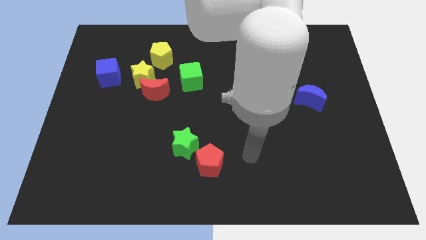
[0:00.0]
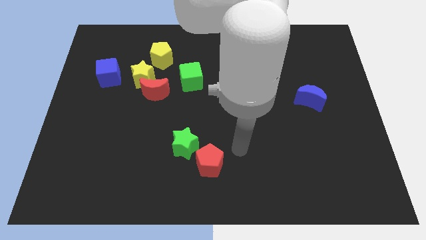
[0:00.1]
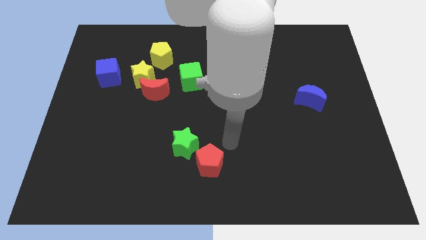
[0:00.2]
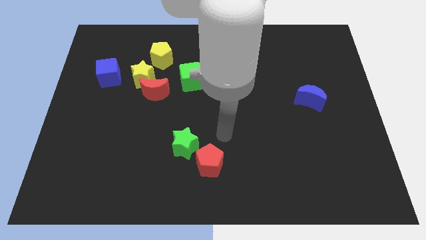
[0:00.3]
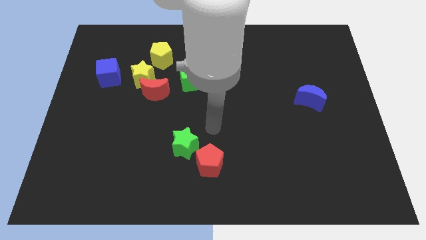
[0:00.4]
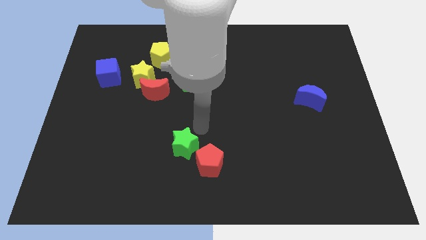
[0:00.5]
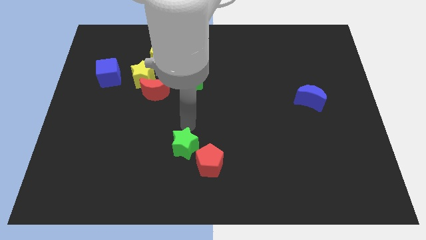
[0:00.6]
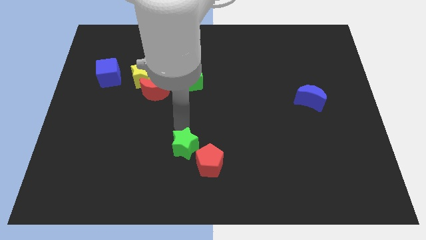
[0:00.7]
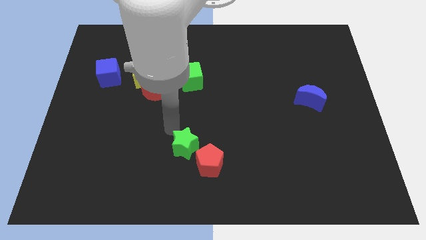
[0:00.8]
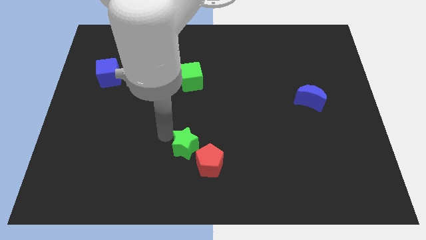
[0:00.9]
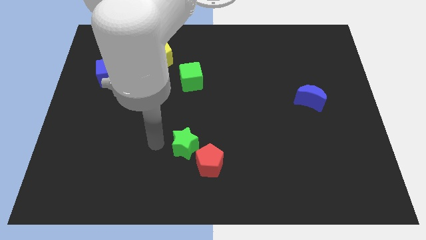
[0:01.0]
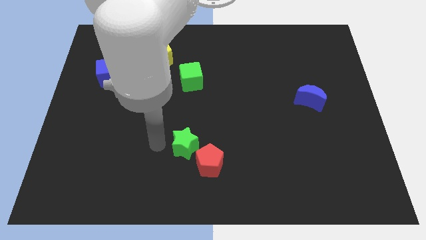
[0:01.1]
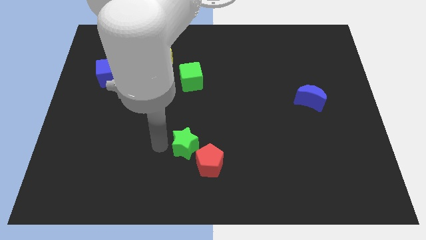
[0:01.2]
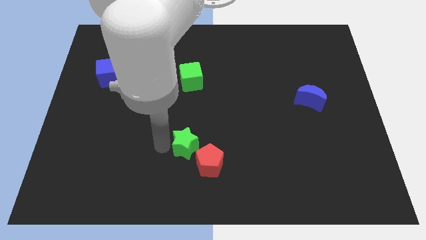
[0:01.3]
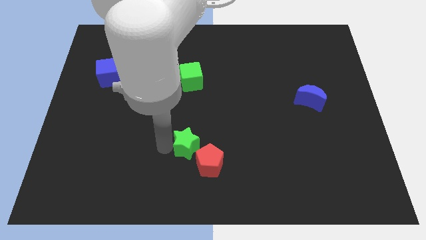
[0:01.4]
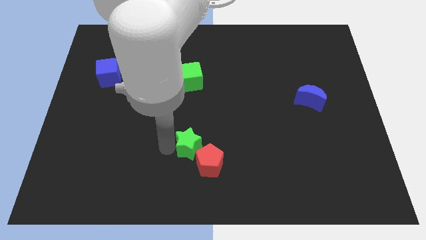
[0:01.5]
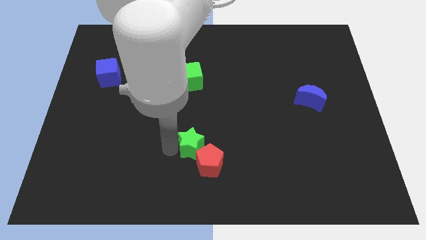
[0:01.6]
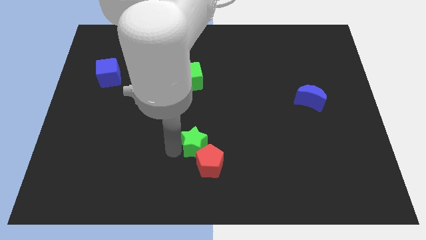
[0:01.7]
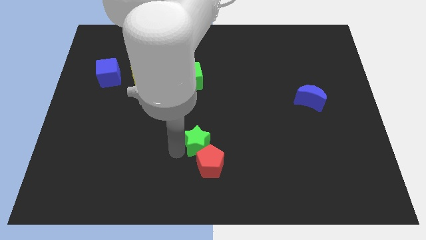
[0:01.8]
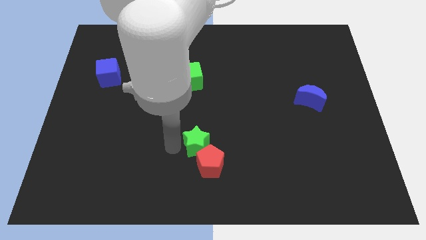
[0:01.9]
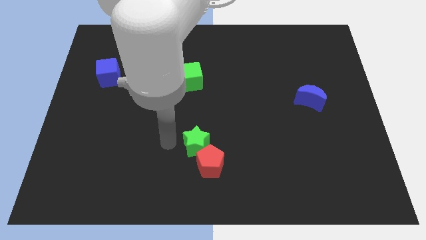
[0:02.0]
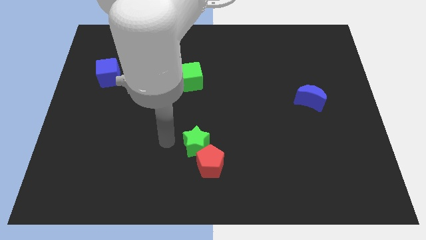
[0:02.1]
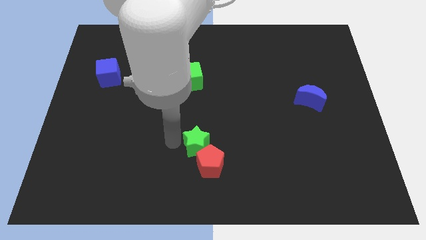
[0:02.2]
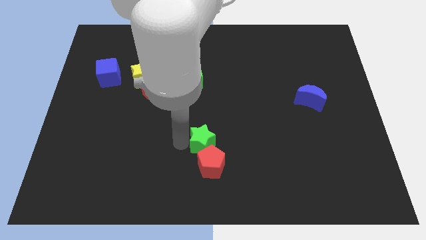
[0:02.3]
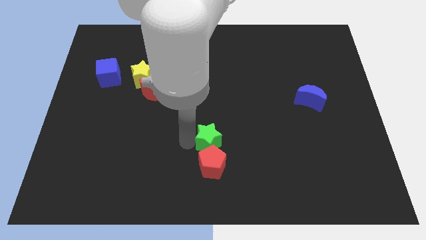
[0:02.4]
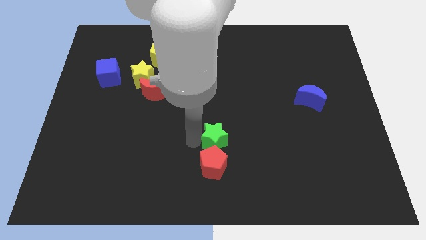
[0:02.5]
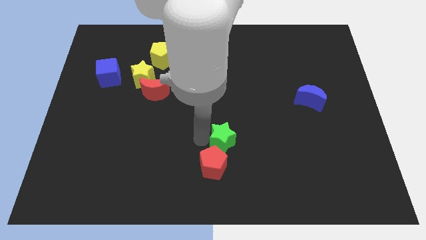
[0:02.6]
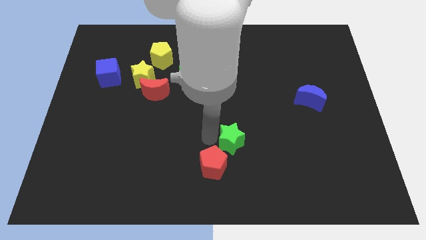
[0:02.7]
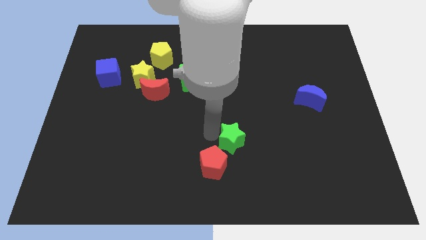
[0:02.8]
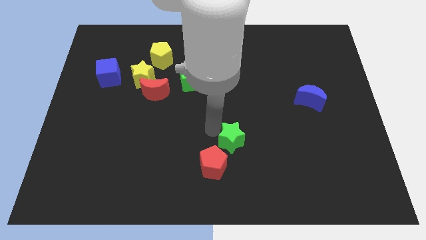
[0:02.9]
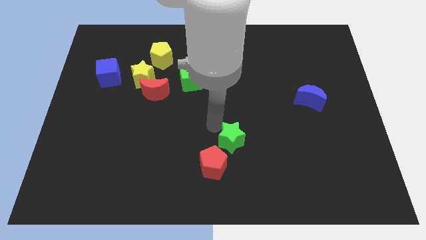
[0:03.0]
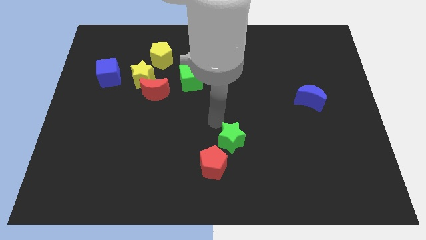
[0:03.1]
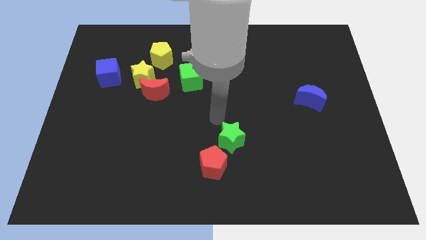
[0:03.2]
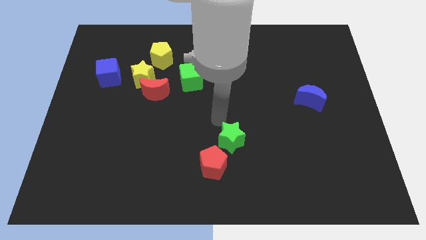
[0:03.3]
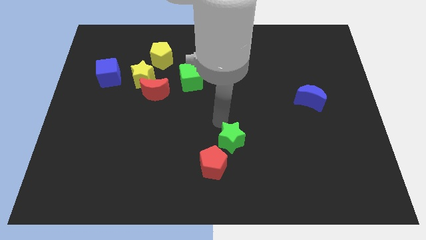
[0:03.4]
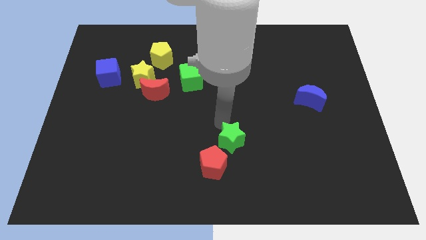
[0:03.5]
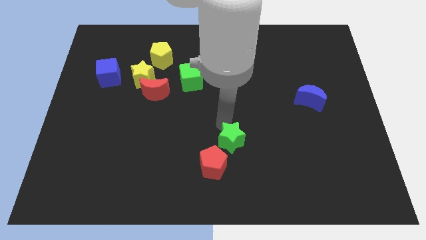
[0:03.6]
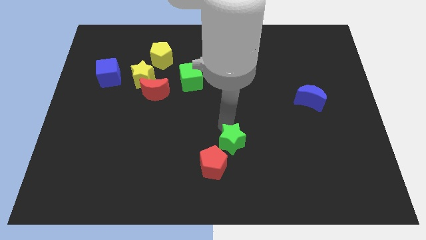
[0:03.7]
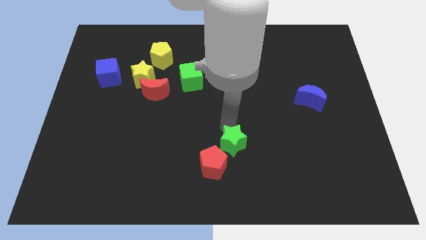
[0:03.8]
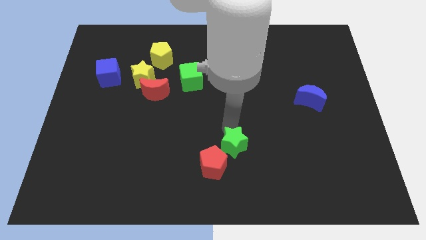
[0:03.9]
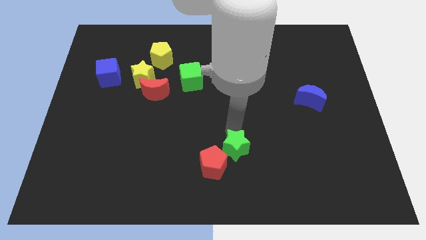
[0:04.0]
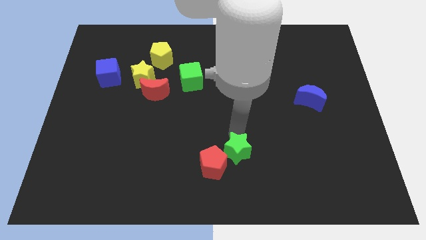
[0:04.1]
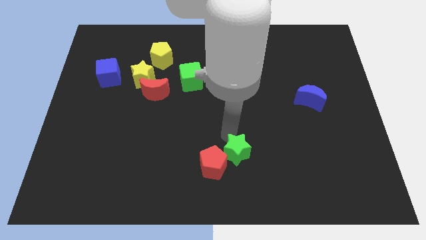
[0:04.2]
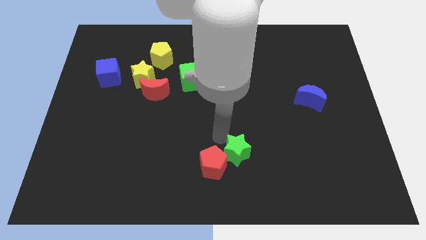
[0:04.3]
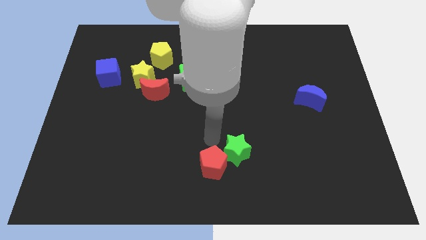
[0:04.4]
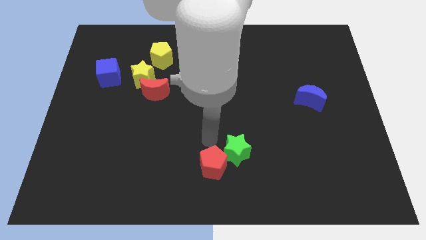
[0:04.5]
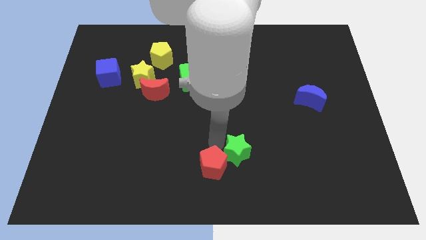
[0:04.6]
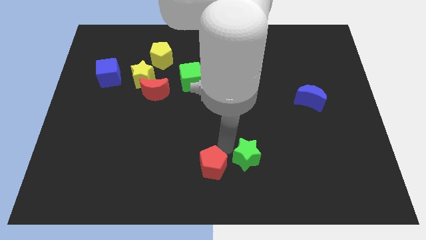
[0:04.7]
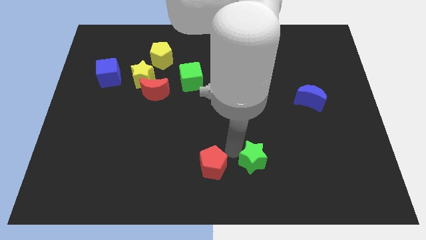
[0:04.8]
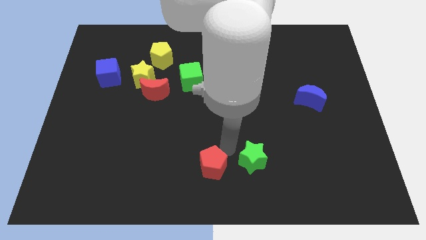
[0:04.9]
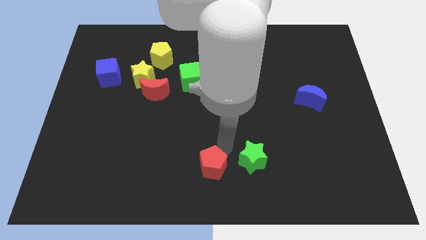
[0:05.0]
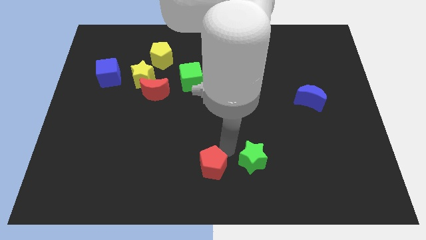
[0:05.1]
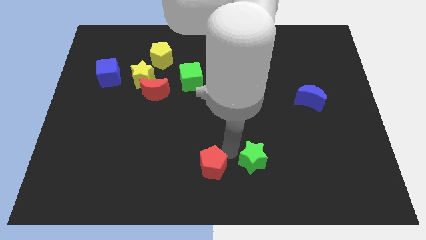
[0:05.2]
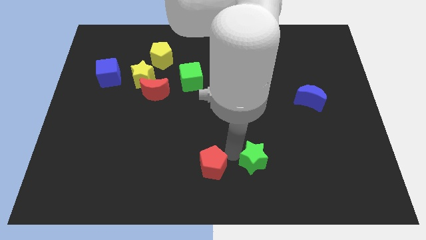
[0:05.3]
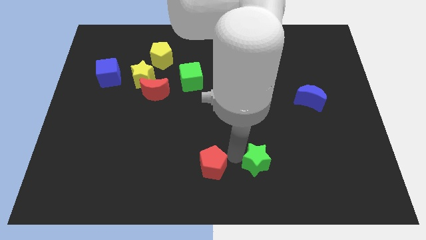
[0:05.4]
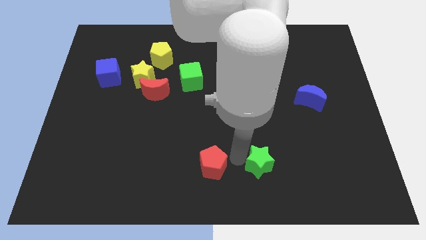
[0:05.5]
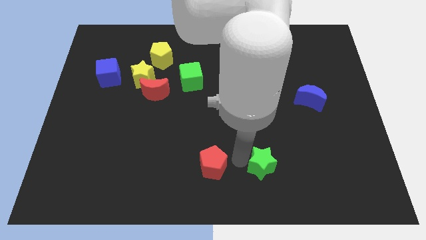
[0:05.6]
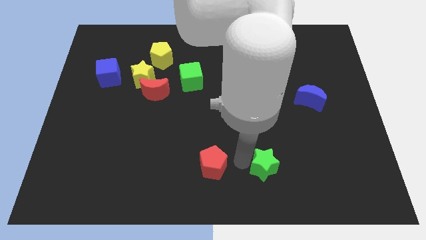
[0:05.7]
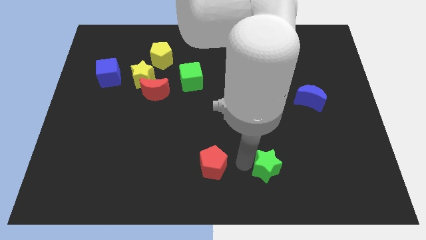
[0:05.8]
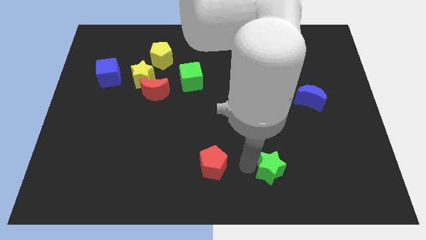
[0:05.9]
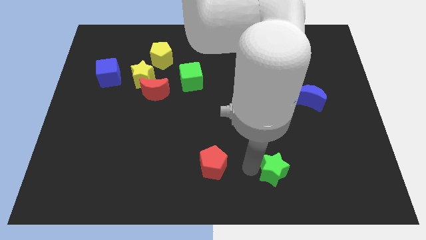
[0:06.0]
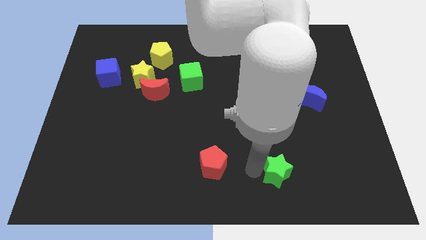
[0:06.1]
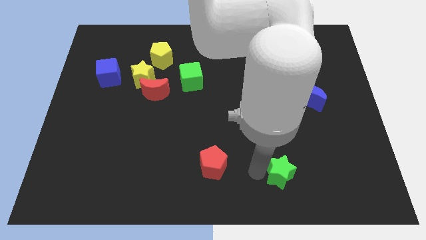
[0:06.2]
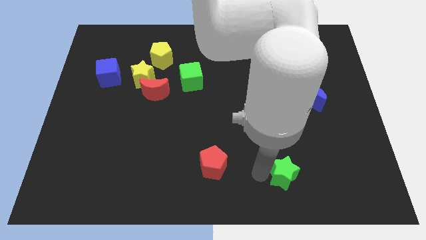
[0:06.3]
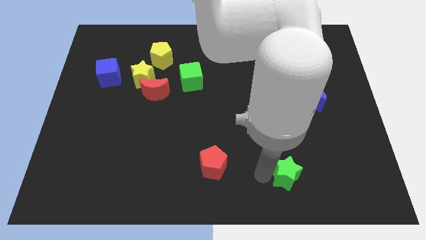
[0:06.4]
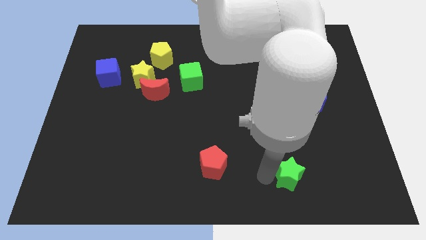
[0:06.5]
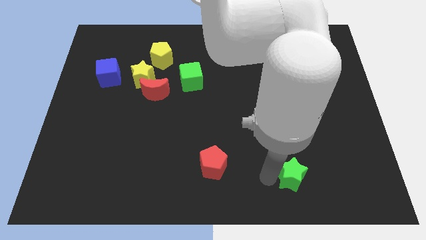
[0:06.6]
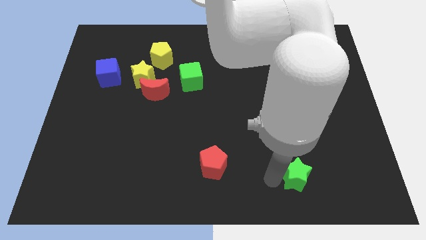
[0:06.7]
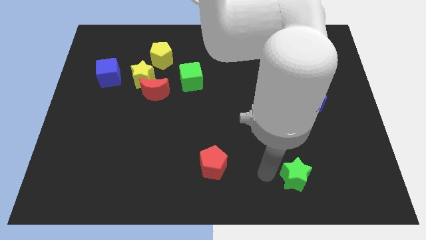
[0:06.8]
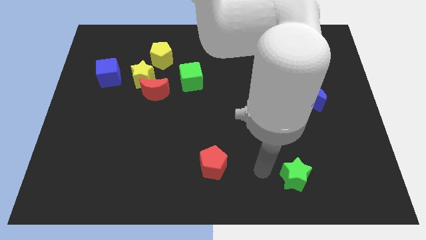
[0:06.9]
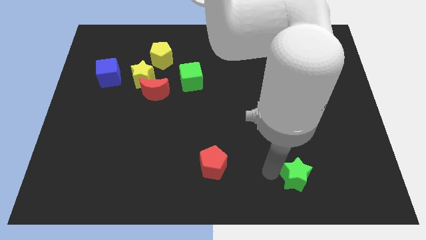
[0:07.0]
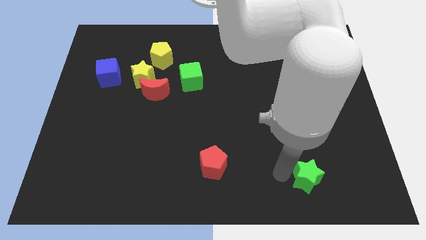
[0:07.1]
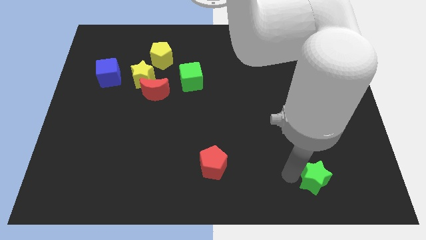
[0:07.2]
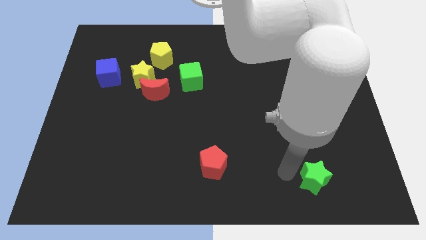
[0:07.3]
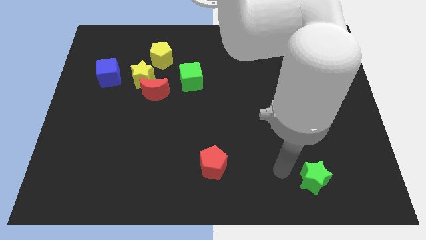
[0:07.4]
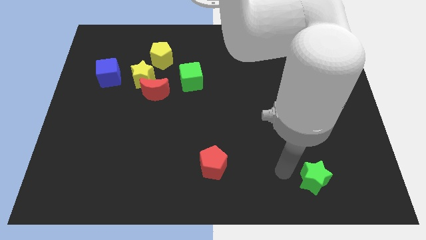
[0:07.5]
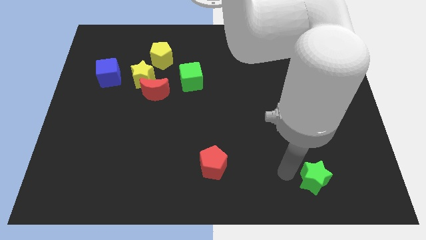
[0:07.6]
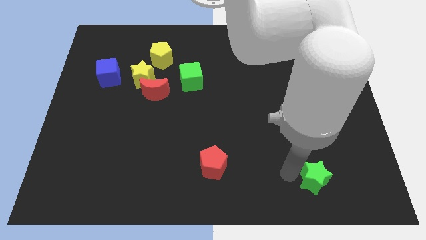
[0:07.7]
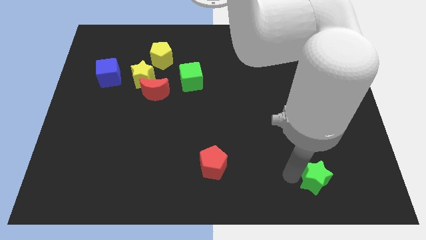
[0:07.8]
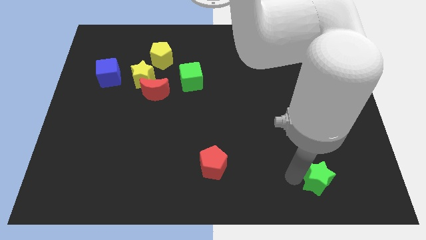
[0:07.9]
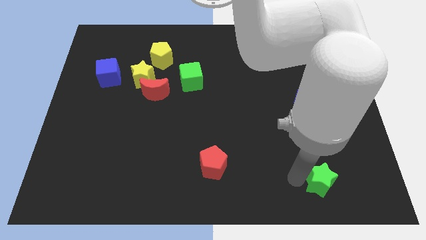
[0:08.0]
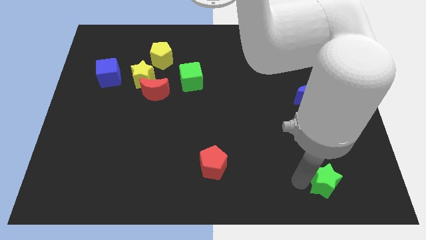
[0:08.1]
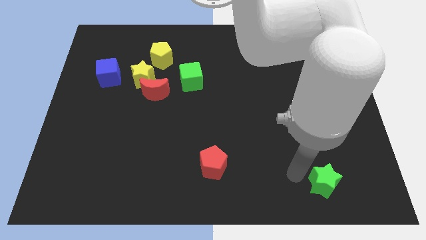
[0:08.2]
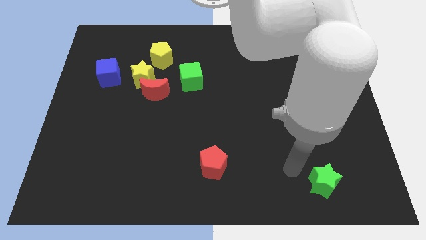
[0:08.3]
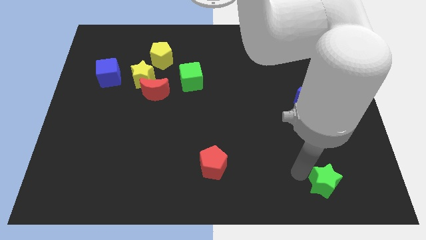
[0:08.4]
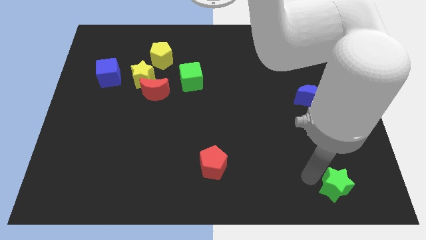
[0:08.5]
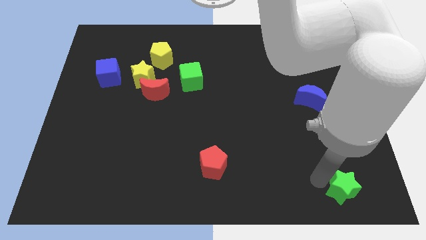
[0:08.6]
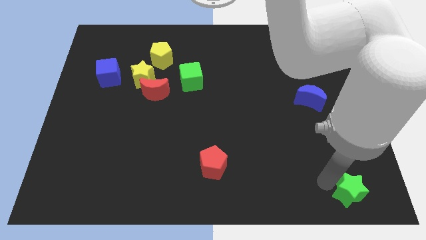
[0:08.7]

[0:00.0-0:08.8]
move the green star to the bottom right
